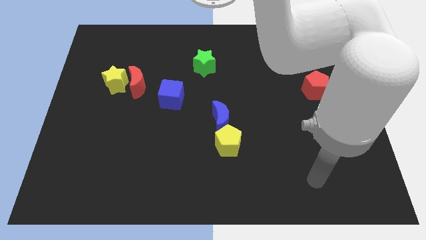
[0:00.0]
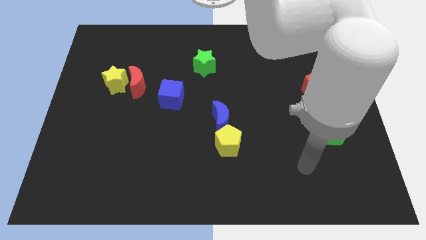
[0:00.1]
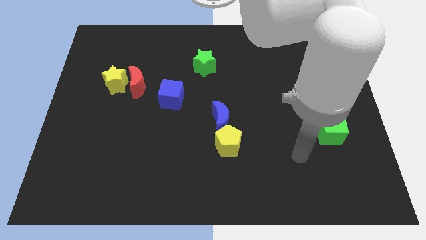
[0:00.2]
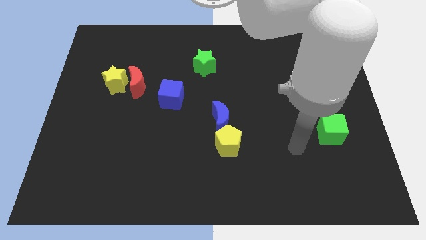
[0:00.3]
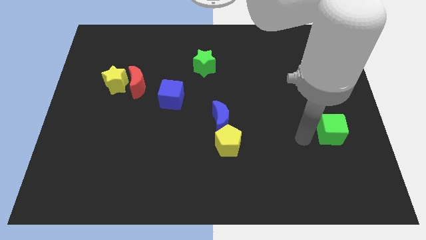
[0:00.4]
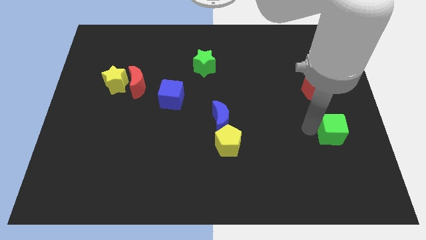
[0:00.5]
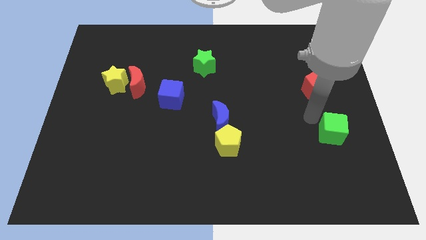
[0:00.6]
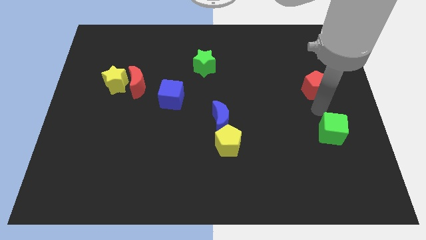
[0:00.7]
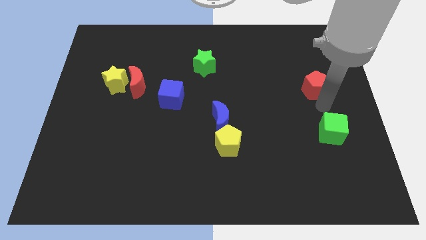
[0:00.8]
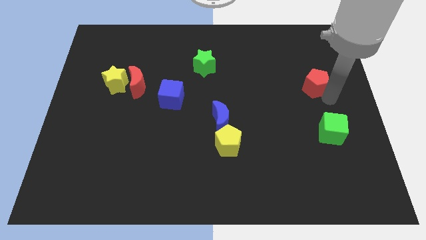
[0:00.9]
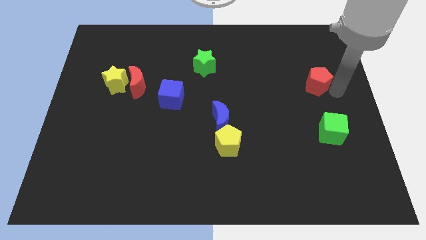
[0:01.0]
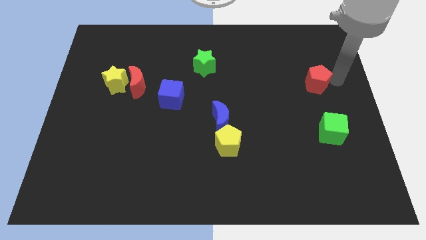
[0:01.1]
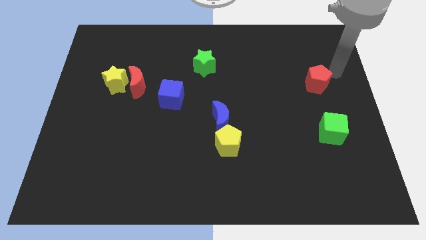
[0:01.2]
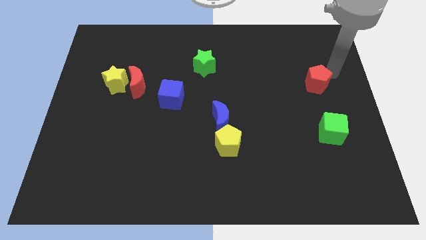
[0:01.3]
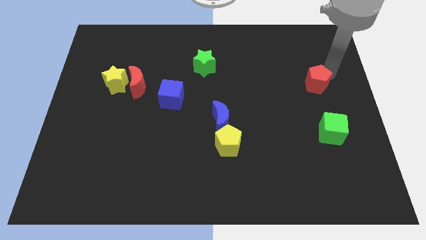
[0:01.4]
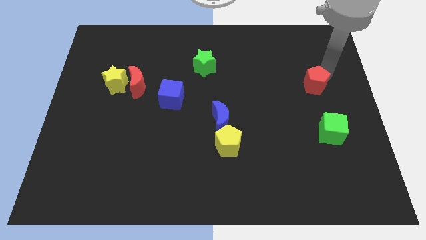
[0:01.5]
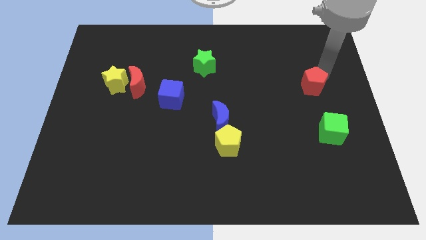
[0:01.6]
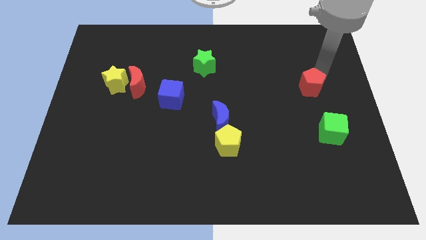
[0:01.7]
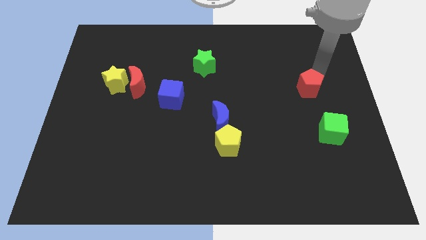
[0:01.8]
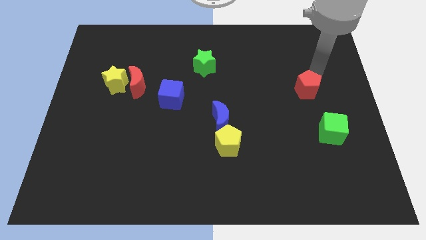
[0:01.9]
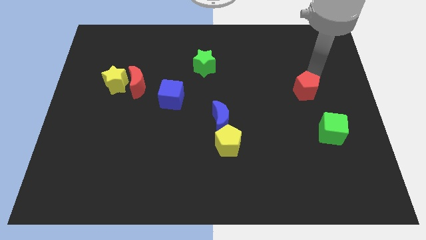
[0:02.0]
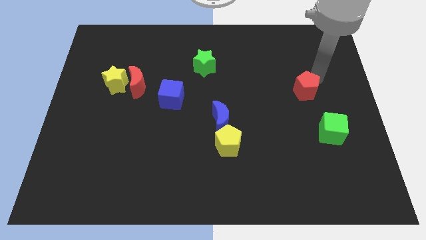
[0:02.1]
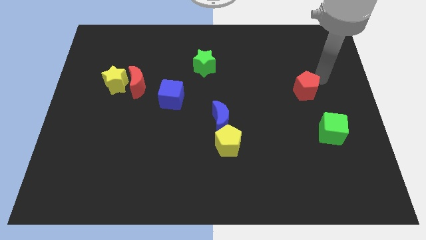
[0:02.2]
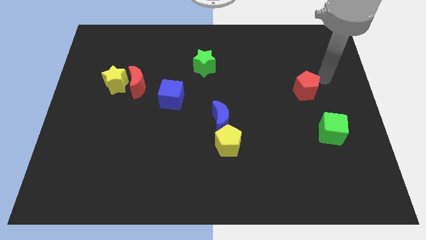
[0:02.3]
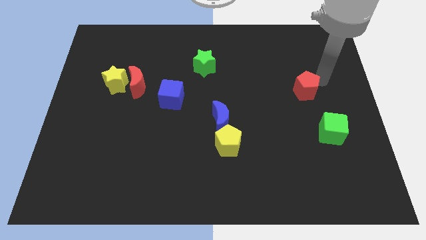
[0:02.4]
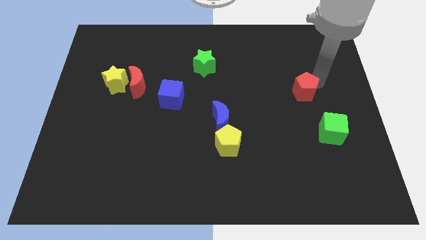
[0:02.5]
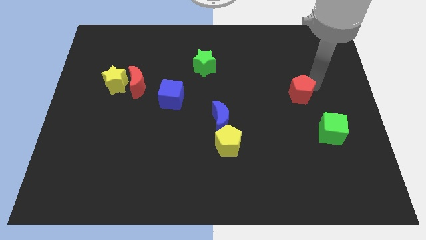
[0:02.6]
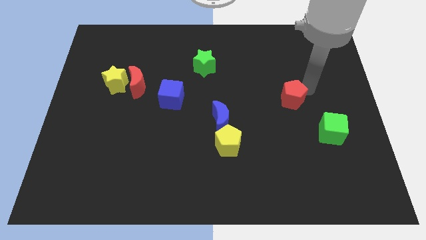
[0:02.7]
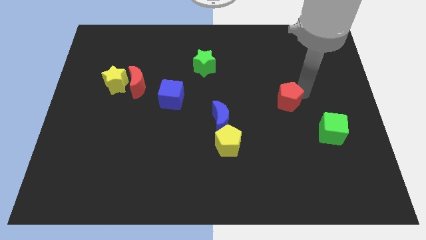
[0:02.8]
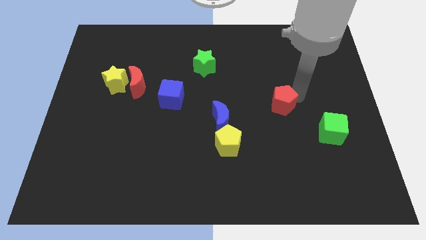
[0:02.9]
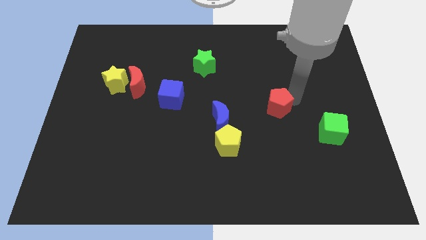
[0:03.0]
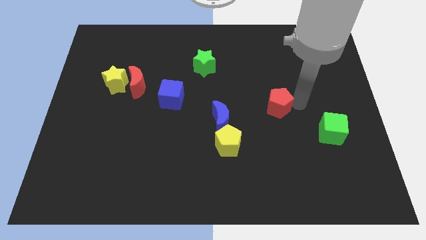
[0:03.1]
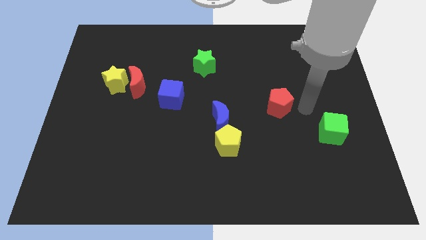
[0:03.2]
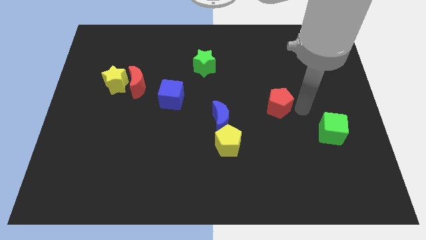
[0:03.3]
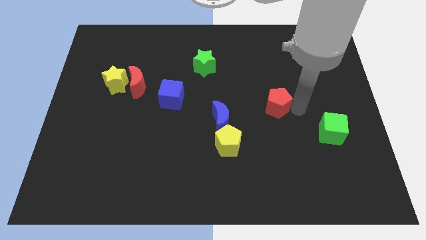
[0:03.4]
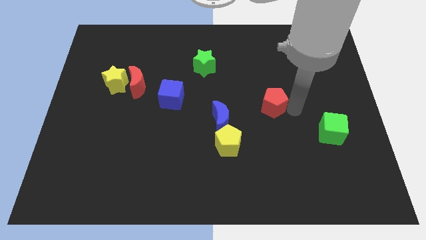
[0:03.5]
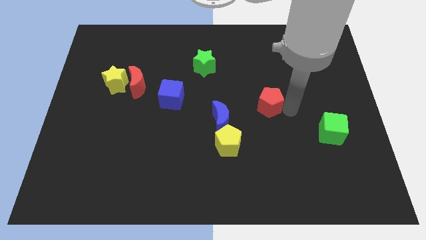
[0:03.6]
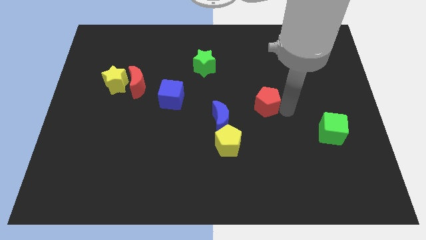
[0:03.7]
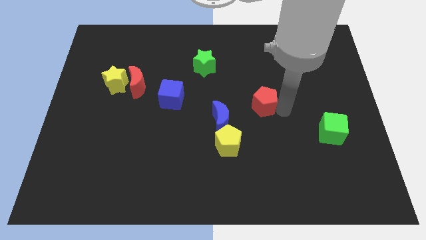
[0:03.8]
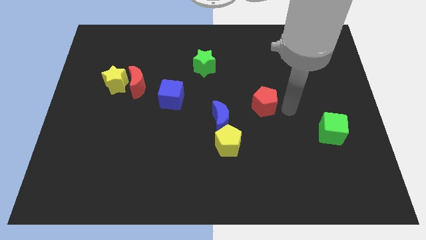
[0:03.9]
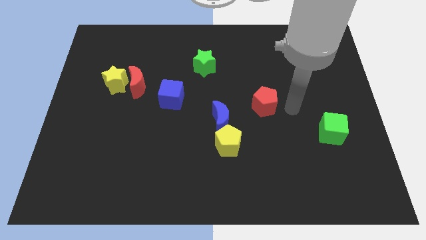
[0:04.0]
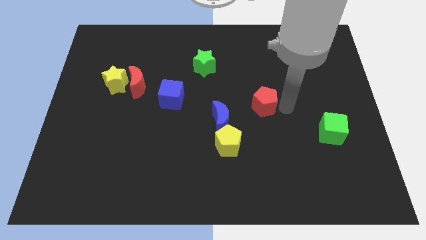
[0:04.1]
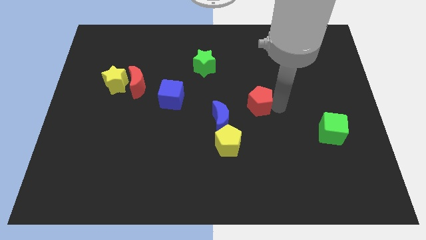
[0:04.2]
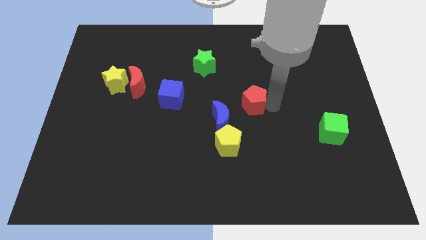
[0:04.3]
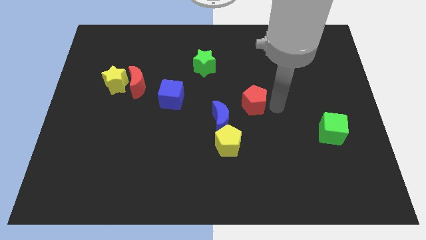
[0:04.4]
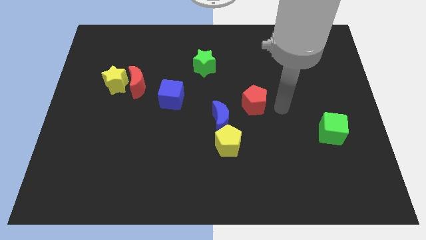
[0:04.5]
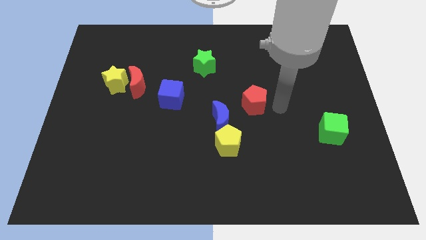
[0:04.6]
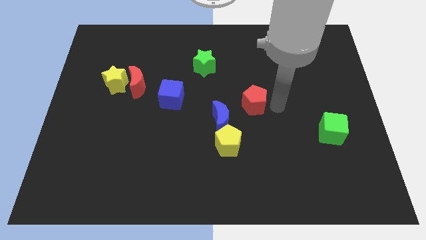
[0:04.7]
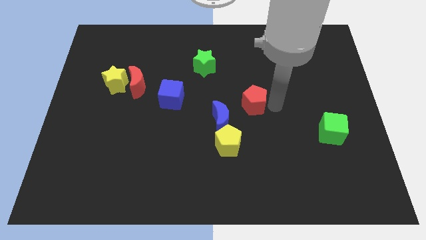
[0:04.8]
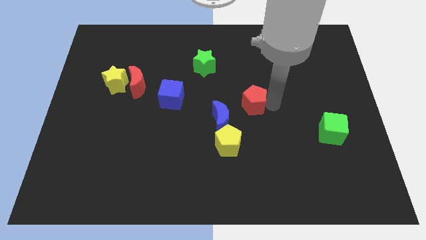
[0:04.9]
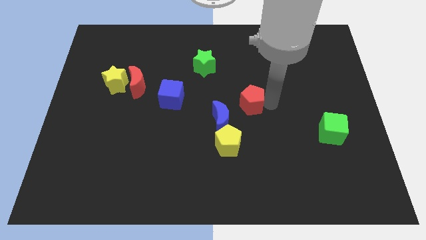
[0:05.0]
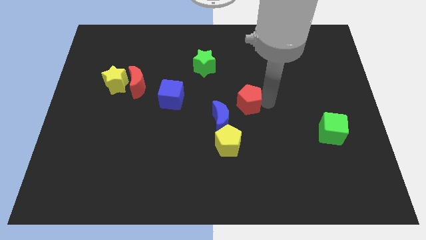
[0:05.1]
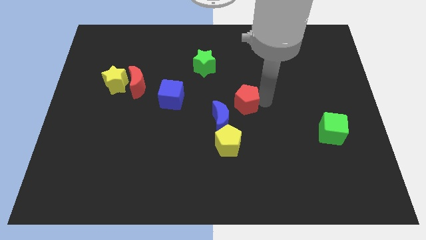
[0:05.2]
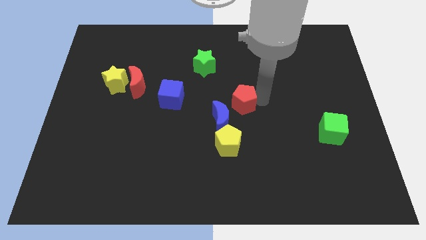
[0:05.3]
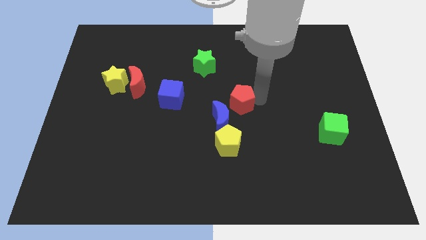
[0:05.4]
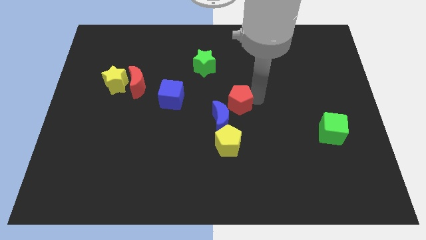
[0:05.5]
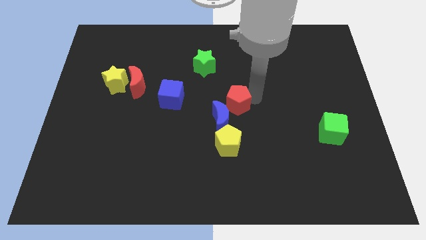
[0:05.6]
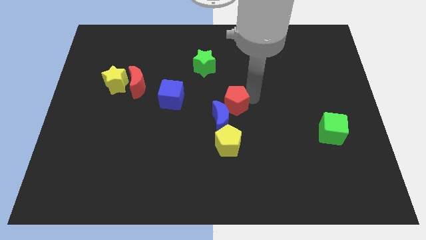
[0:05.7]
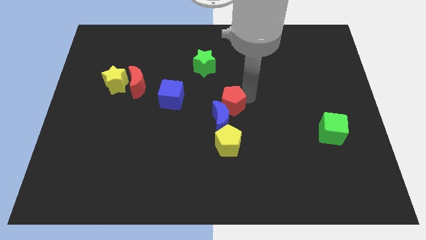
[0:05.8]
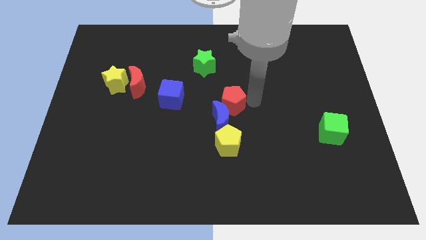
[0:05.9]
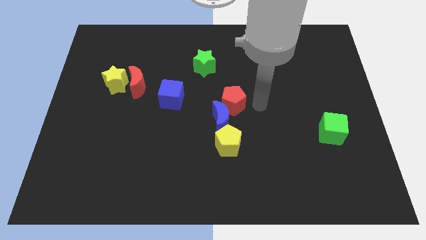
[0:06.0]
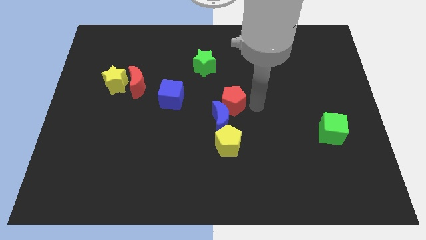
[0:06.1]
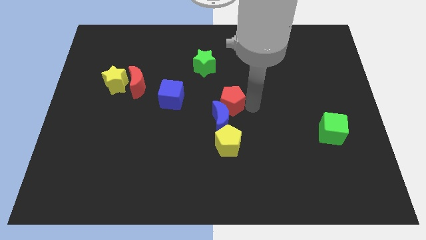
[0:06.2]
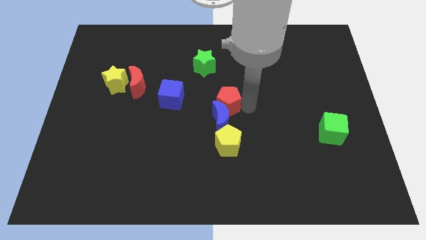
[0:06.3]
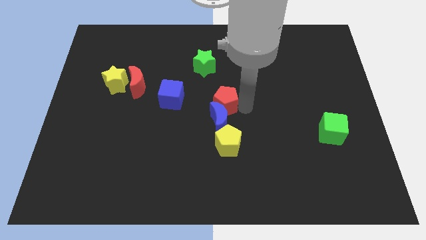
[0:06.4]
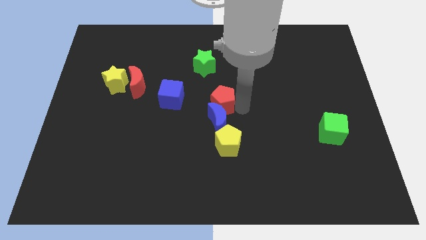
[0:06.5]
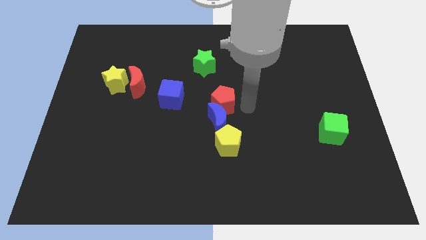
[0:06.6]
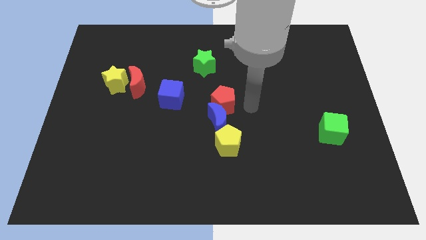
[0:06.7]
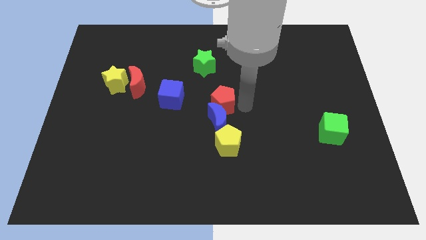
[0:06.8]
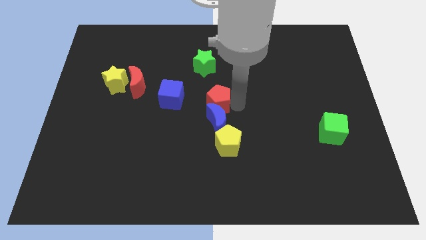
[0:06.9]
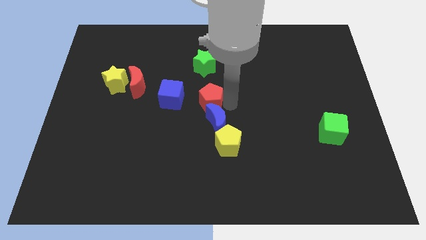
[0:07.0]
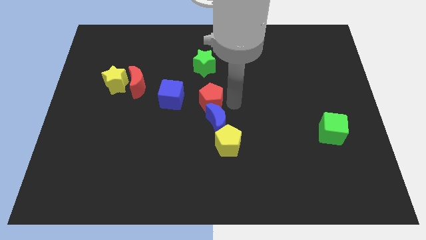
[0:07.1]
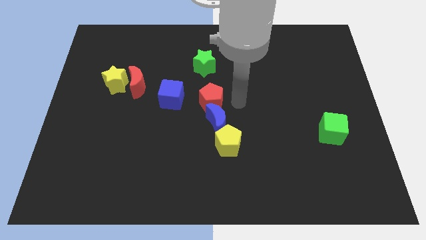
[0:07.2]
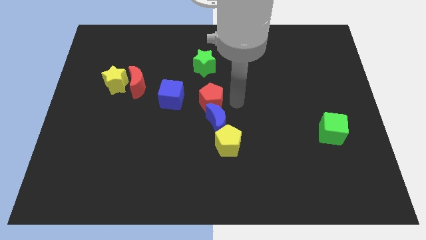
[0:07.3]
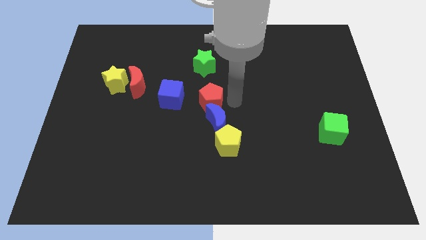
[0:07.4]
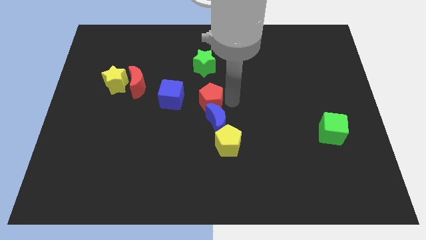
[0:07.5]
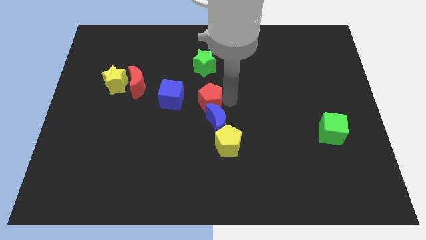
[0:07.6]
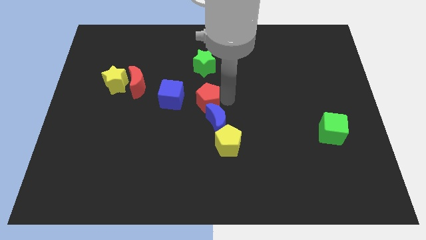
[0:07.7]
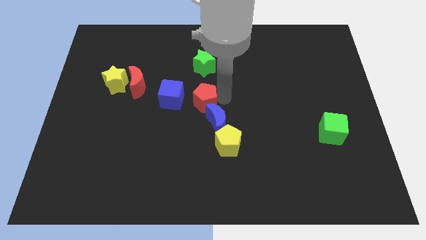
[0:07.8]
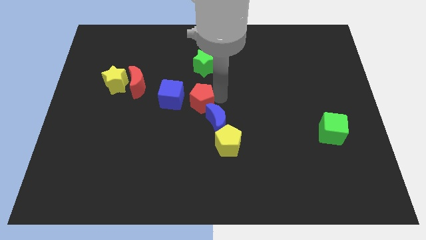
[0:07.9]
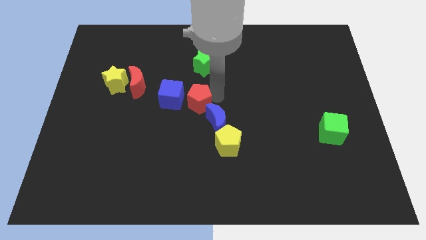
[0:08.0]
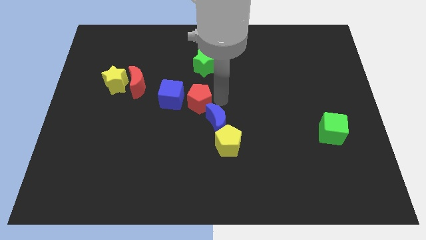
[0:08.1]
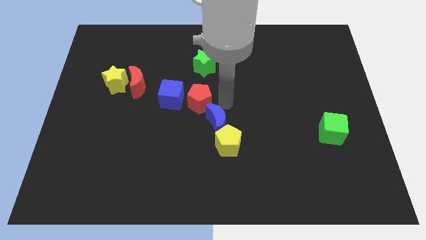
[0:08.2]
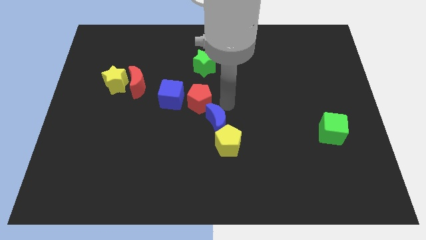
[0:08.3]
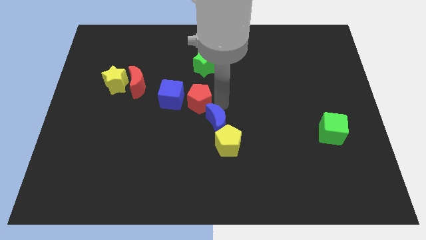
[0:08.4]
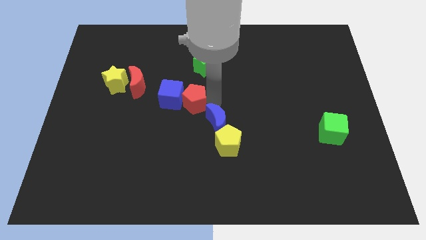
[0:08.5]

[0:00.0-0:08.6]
push the red pentagon next to the blue cube
